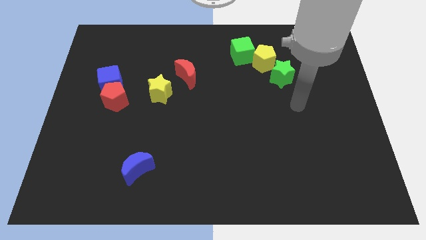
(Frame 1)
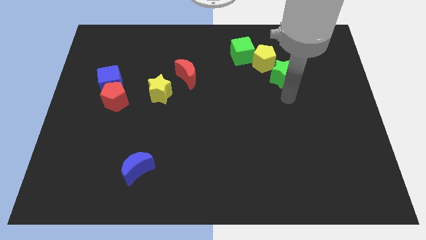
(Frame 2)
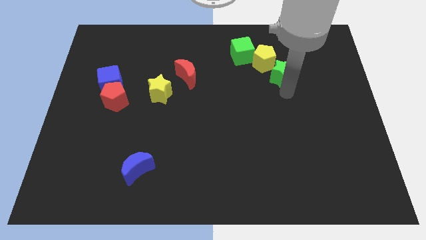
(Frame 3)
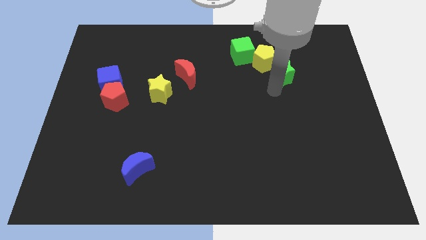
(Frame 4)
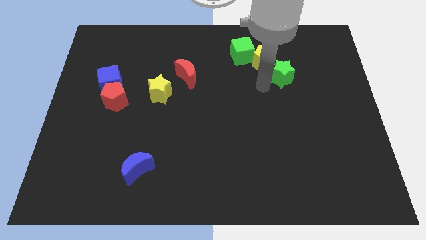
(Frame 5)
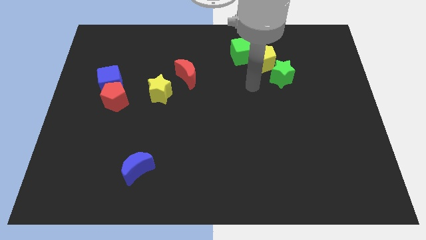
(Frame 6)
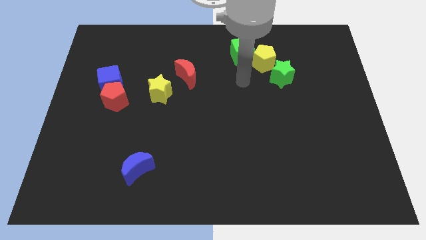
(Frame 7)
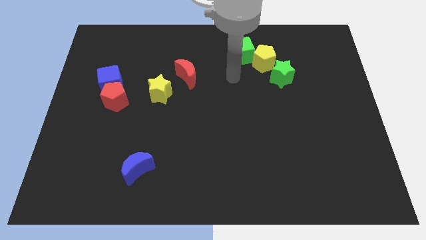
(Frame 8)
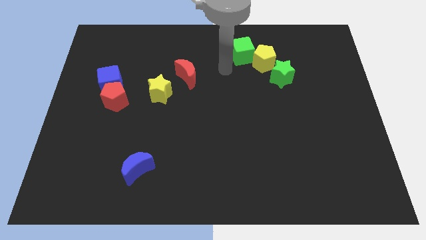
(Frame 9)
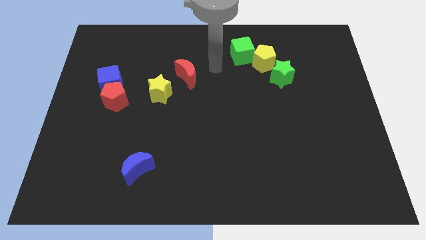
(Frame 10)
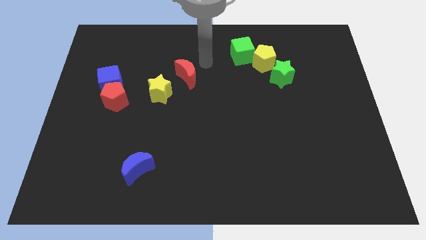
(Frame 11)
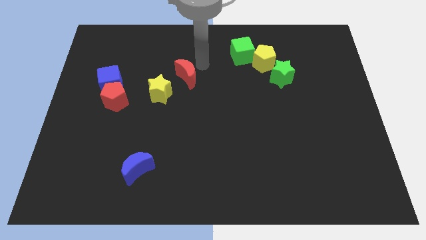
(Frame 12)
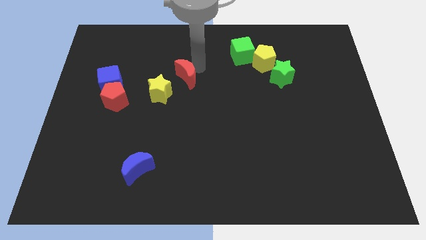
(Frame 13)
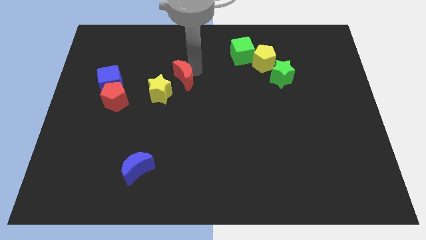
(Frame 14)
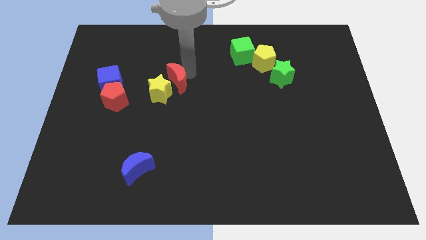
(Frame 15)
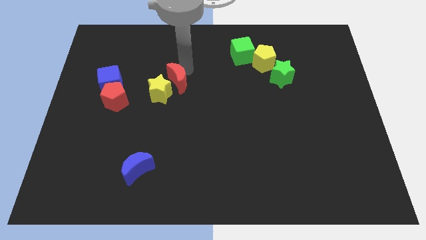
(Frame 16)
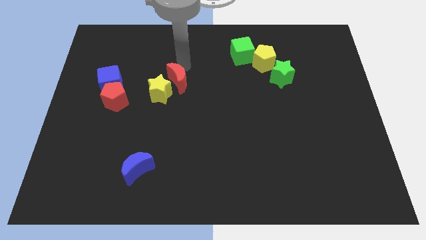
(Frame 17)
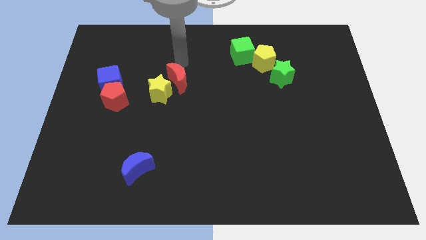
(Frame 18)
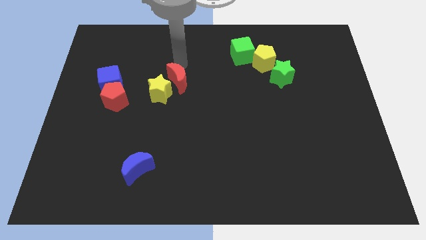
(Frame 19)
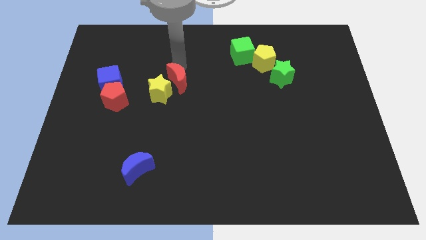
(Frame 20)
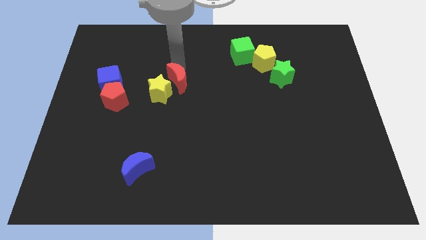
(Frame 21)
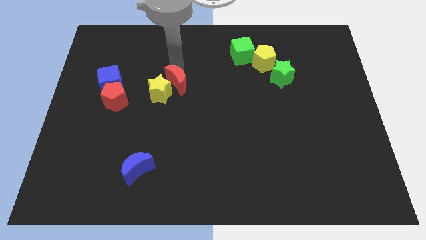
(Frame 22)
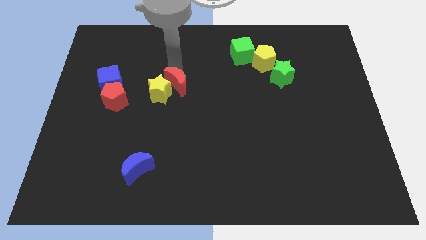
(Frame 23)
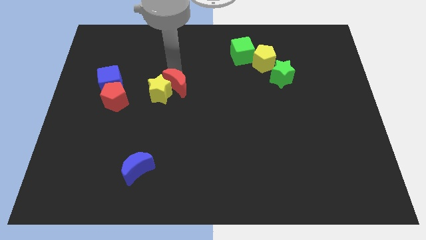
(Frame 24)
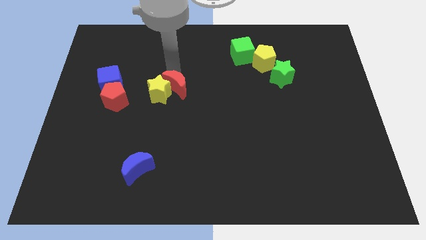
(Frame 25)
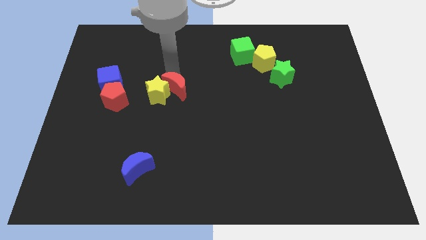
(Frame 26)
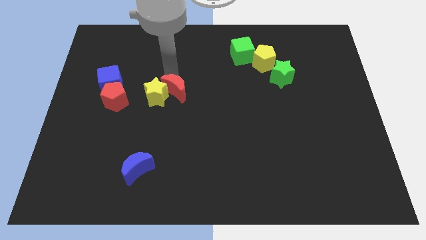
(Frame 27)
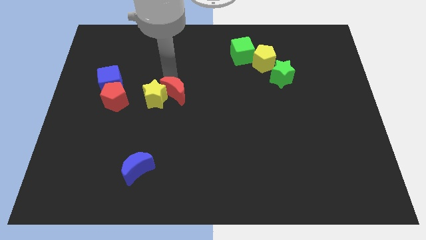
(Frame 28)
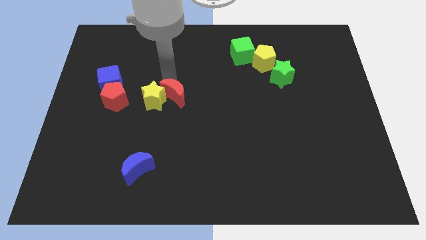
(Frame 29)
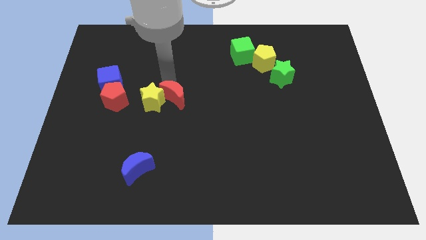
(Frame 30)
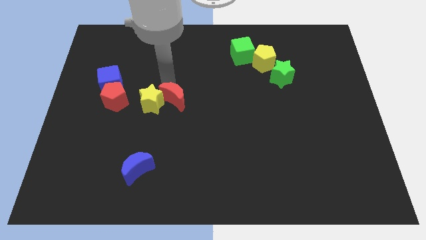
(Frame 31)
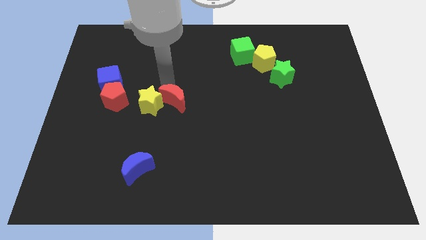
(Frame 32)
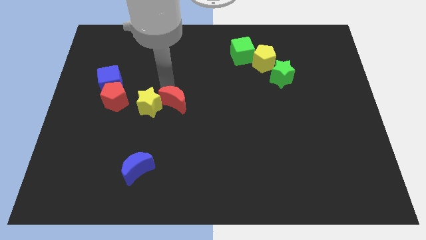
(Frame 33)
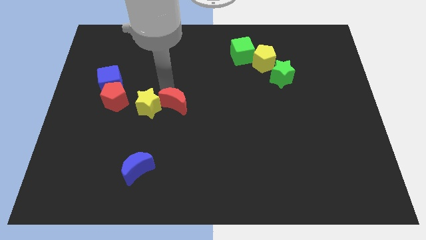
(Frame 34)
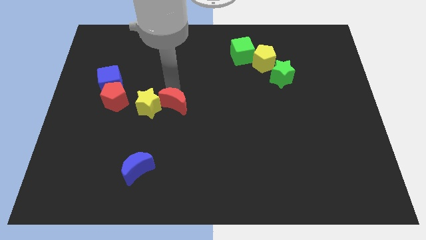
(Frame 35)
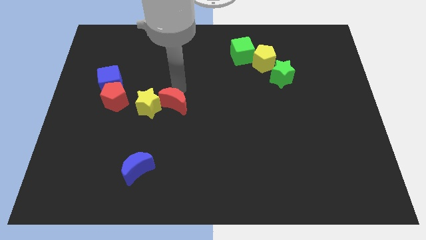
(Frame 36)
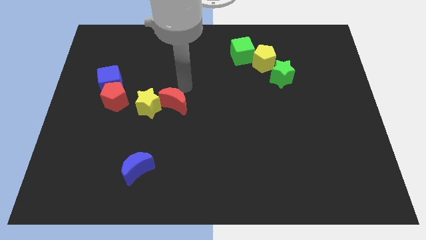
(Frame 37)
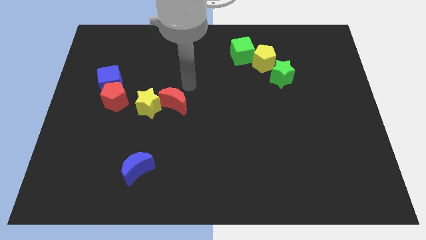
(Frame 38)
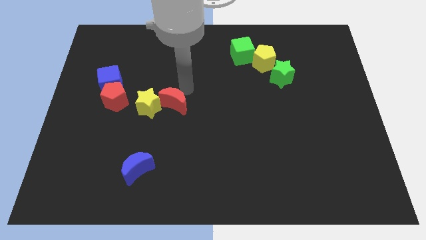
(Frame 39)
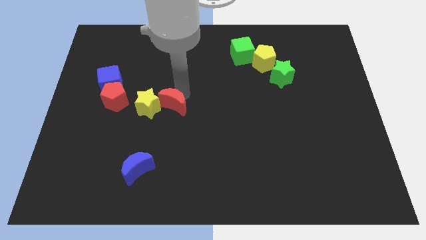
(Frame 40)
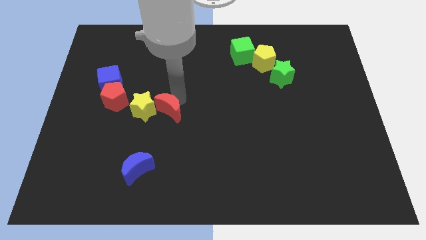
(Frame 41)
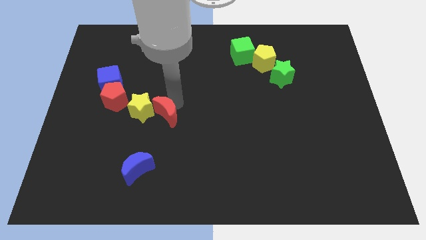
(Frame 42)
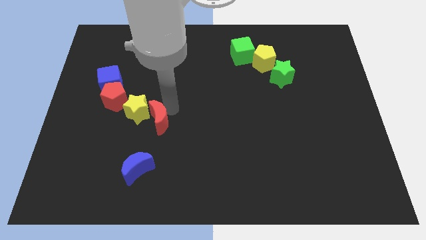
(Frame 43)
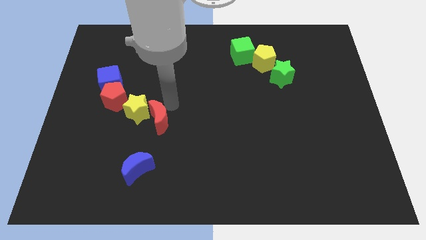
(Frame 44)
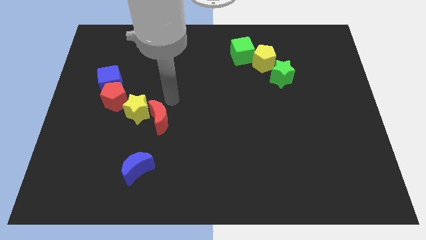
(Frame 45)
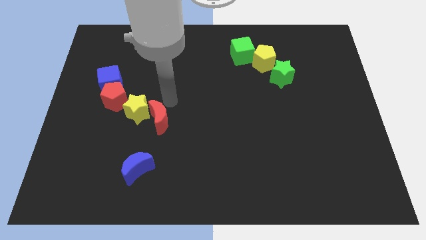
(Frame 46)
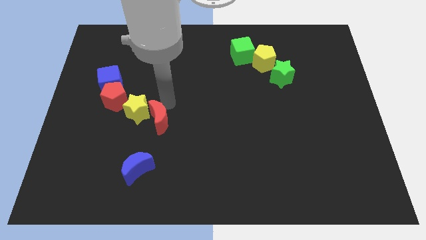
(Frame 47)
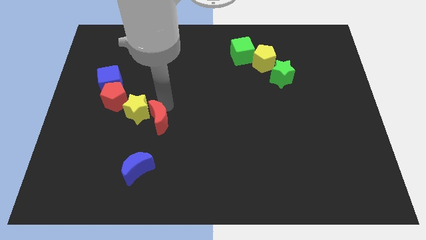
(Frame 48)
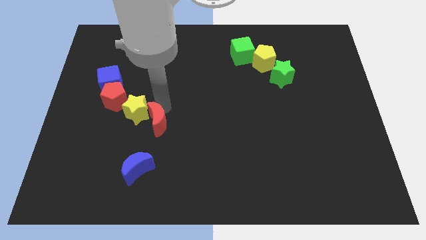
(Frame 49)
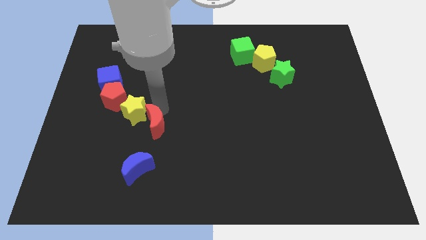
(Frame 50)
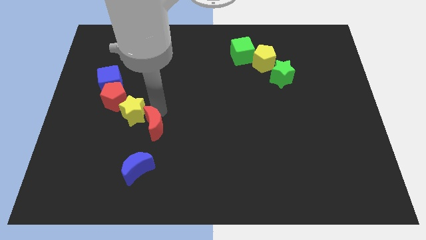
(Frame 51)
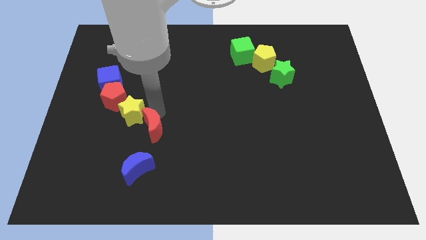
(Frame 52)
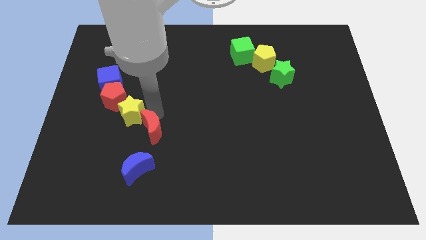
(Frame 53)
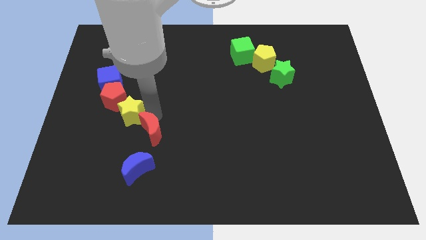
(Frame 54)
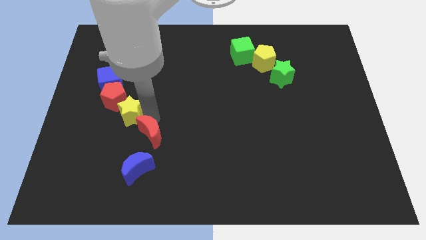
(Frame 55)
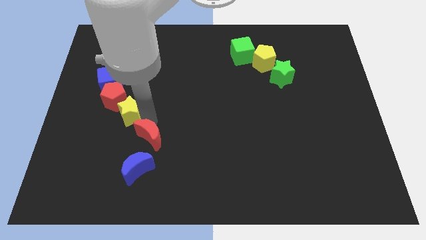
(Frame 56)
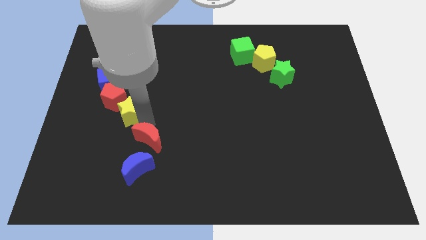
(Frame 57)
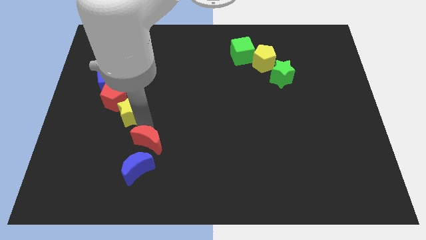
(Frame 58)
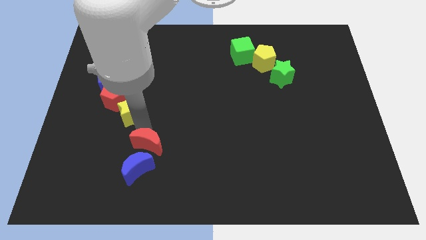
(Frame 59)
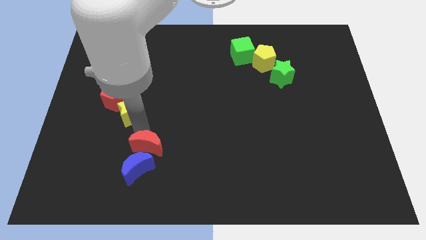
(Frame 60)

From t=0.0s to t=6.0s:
put the red moon close to the blue moon

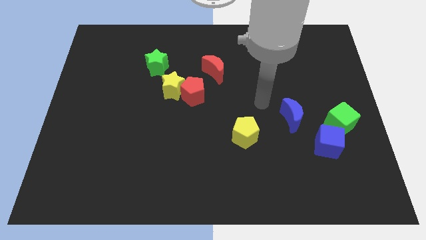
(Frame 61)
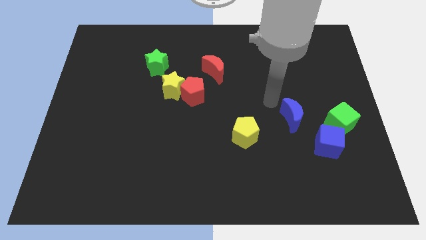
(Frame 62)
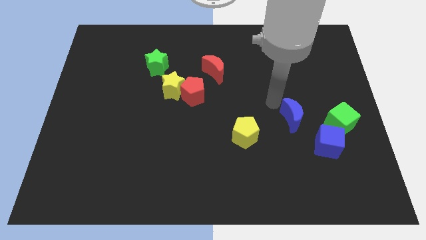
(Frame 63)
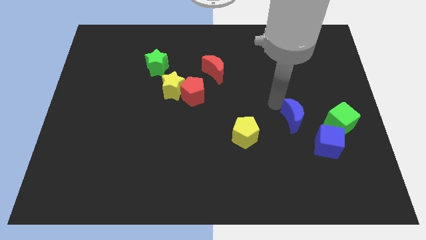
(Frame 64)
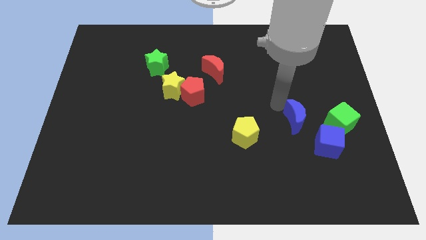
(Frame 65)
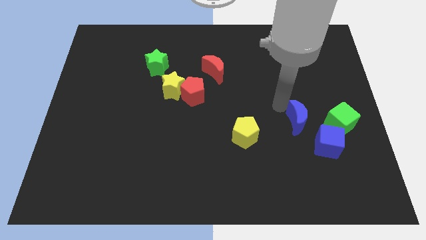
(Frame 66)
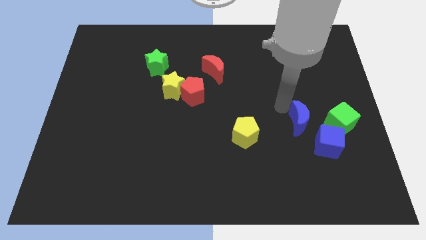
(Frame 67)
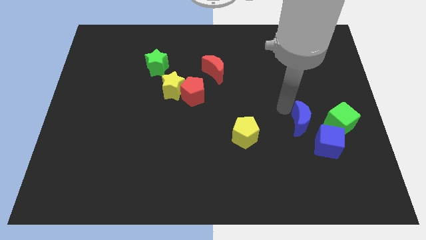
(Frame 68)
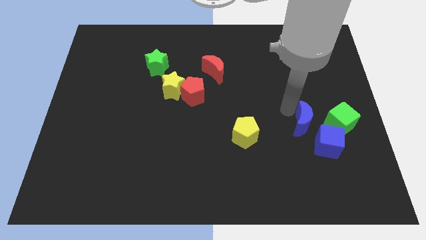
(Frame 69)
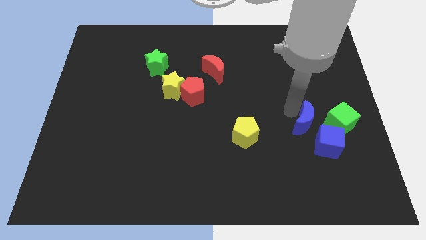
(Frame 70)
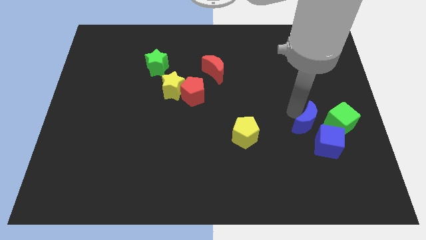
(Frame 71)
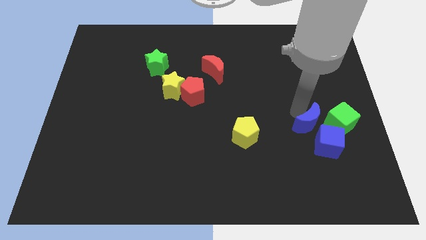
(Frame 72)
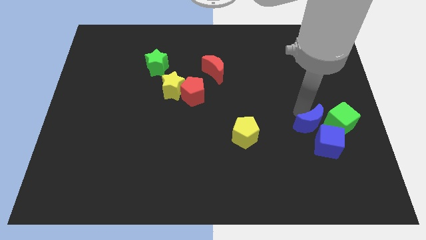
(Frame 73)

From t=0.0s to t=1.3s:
push the blue moon close to the blue cube
